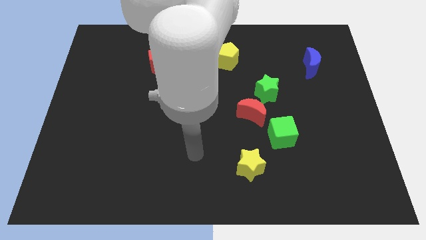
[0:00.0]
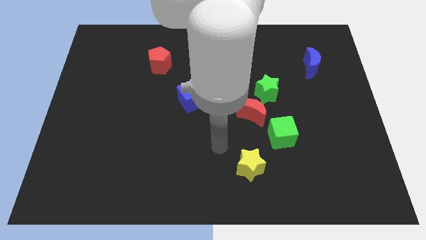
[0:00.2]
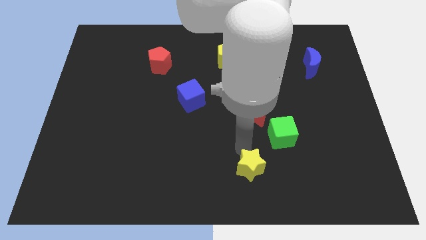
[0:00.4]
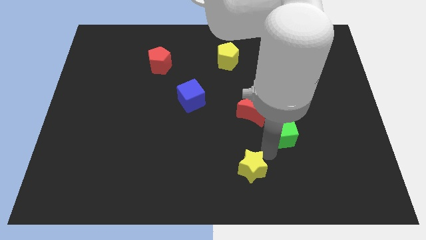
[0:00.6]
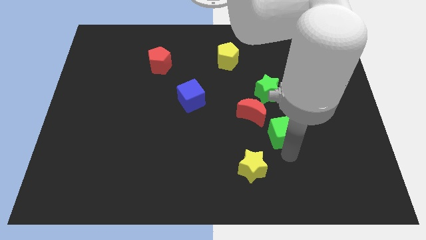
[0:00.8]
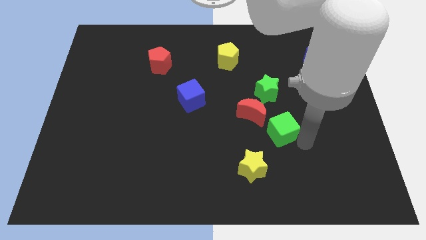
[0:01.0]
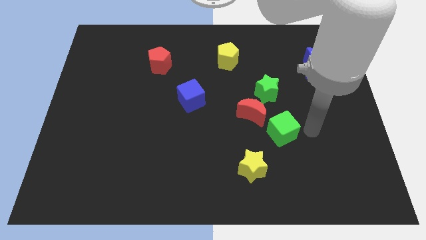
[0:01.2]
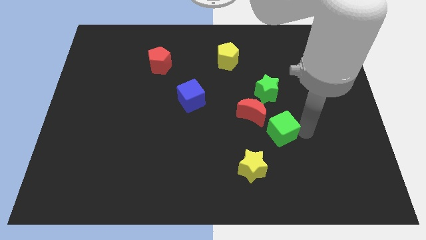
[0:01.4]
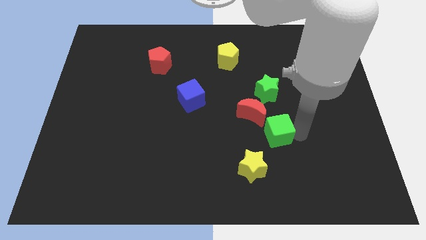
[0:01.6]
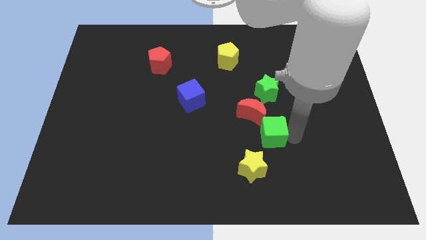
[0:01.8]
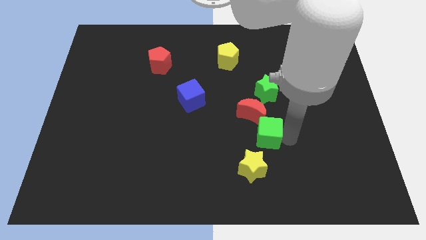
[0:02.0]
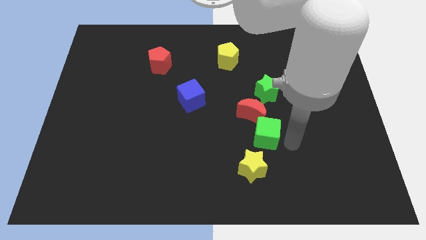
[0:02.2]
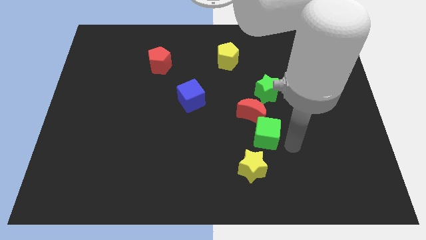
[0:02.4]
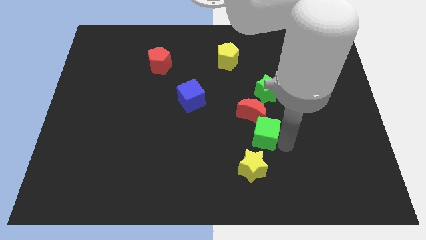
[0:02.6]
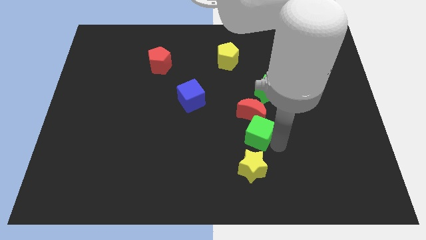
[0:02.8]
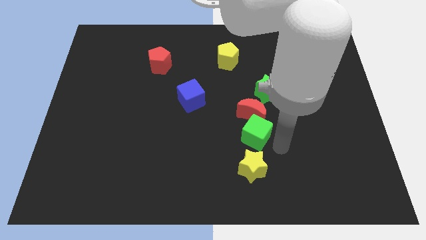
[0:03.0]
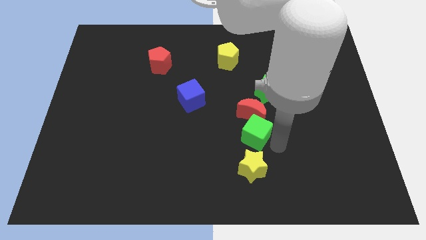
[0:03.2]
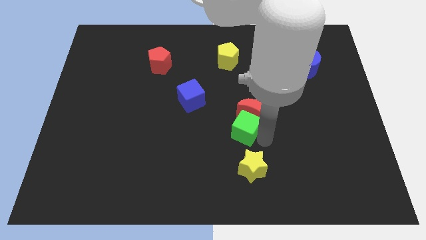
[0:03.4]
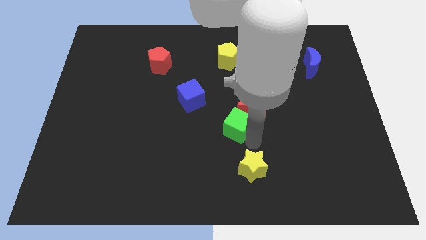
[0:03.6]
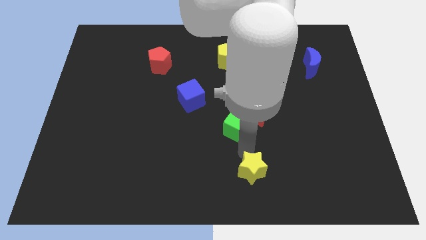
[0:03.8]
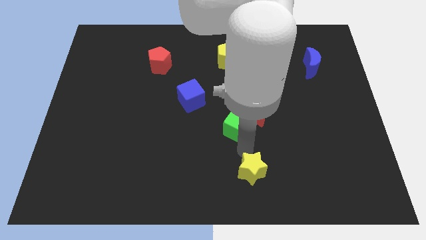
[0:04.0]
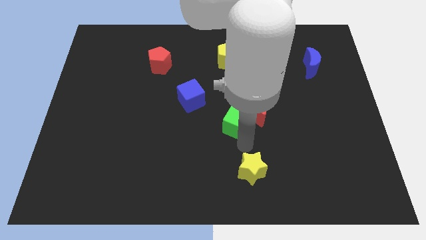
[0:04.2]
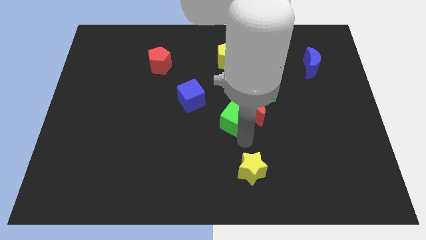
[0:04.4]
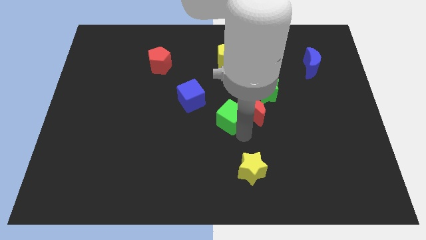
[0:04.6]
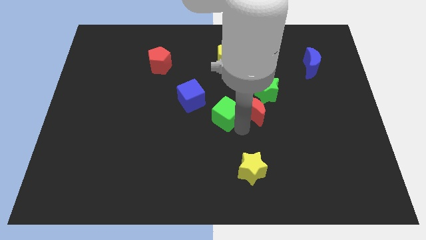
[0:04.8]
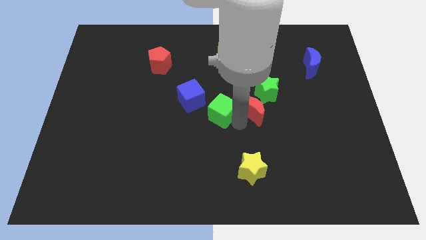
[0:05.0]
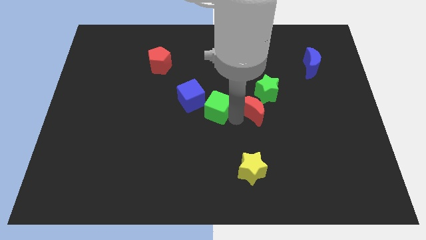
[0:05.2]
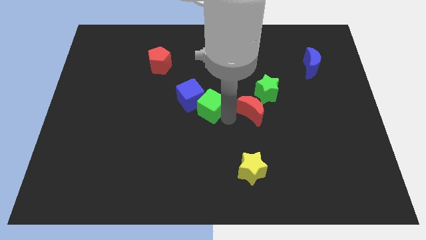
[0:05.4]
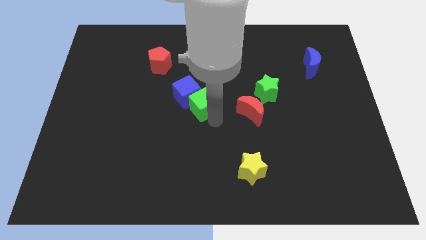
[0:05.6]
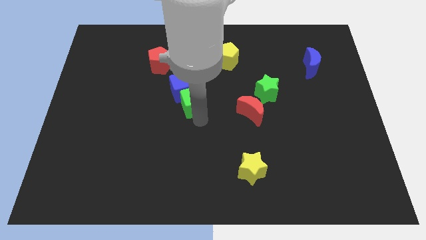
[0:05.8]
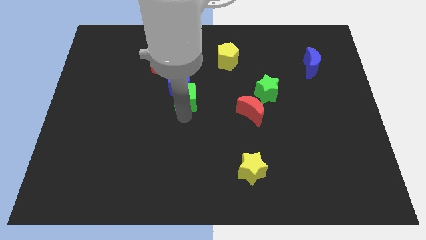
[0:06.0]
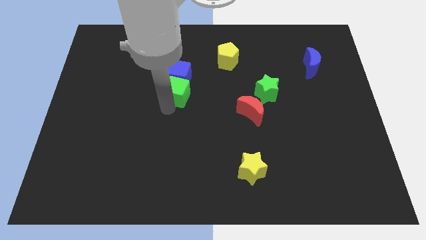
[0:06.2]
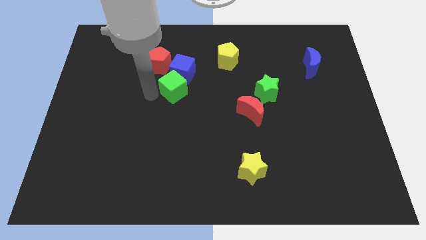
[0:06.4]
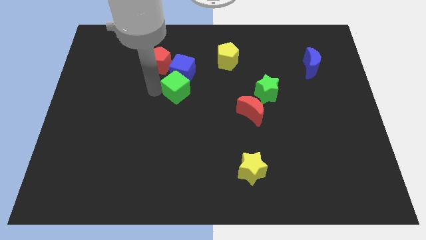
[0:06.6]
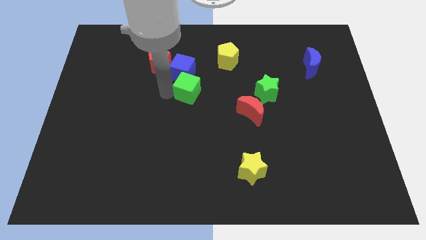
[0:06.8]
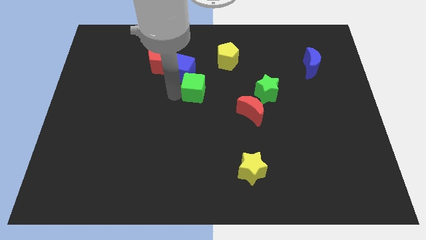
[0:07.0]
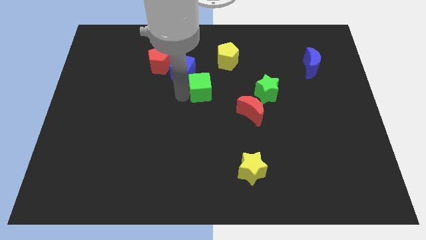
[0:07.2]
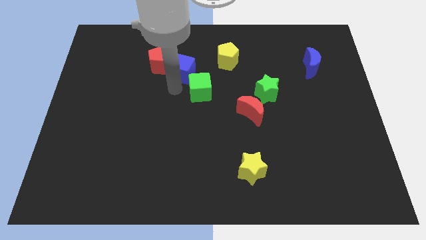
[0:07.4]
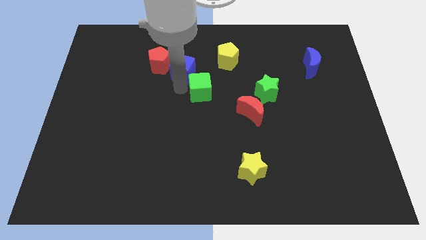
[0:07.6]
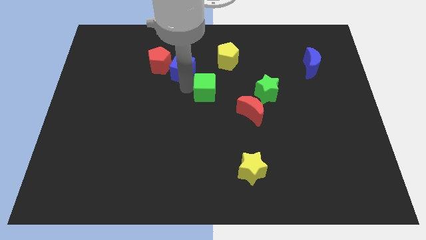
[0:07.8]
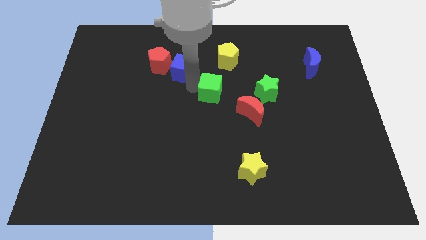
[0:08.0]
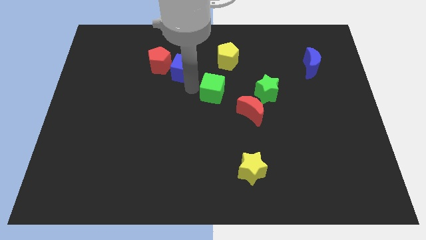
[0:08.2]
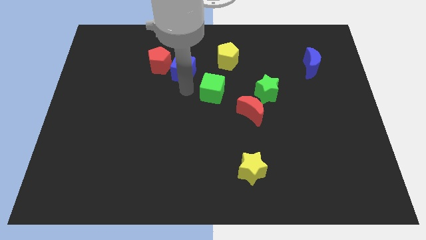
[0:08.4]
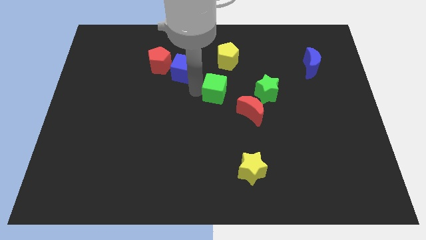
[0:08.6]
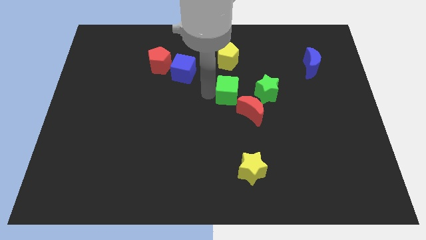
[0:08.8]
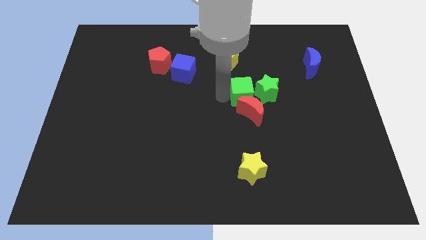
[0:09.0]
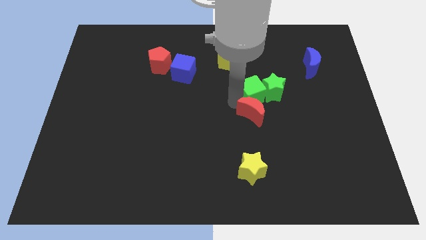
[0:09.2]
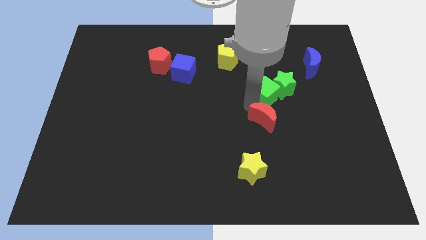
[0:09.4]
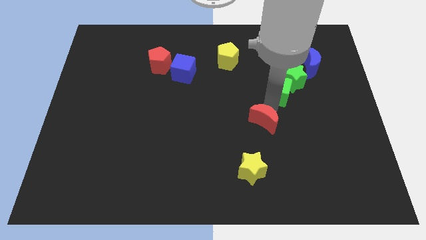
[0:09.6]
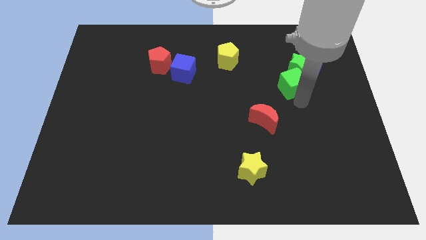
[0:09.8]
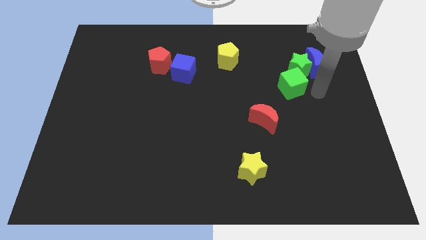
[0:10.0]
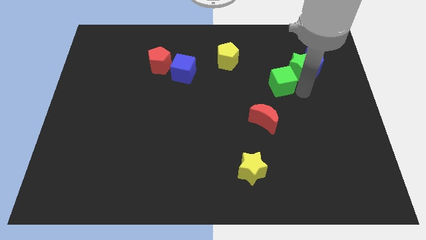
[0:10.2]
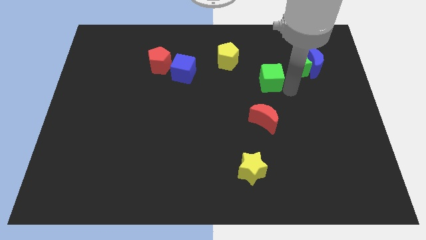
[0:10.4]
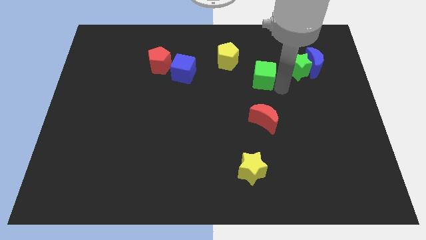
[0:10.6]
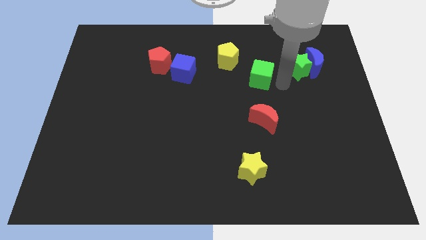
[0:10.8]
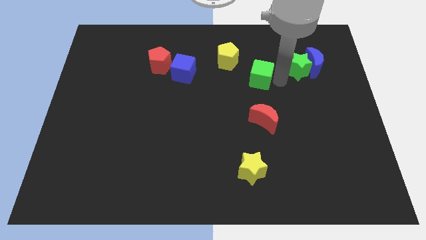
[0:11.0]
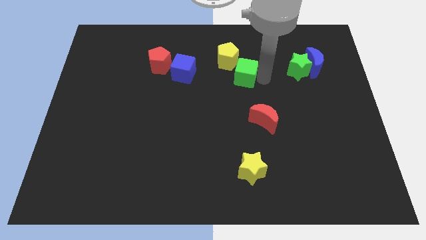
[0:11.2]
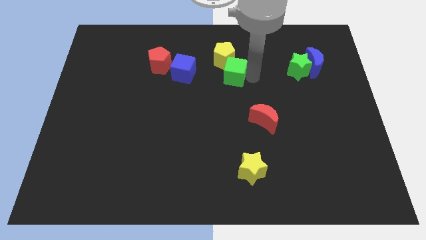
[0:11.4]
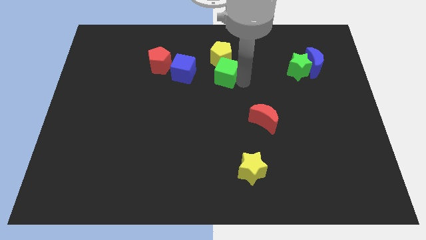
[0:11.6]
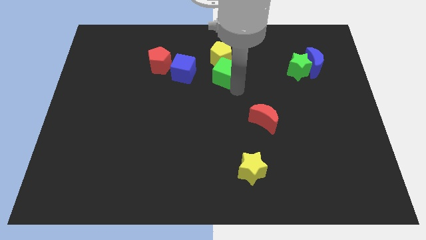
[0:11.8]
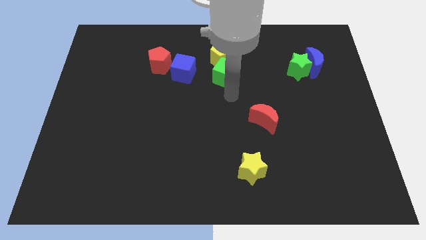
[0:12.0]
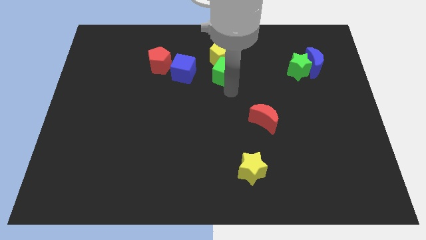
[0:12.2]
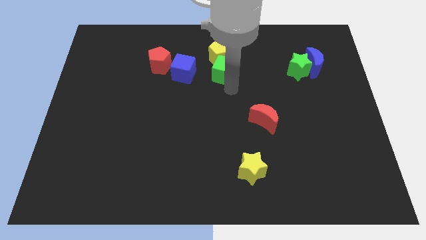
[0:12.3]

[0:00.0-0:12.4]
slide the green cube next to the yellow pentagon
